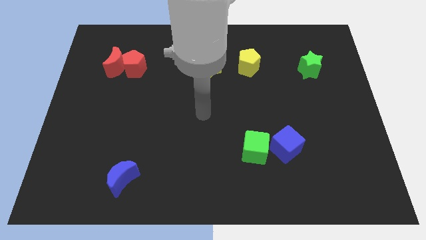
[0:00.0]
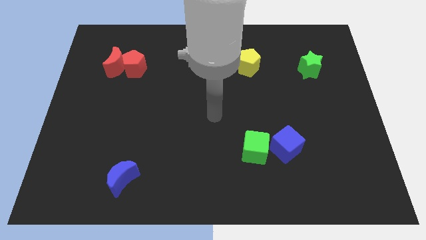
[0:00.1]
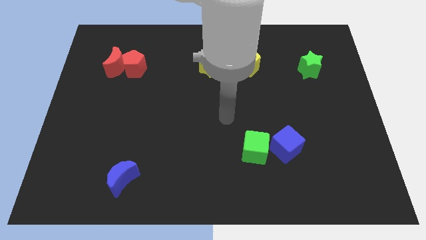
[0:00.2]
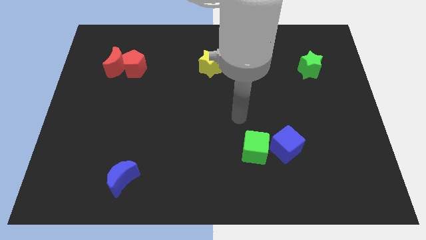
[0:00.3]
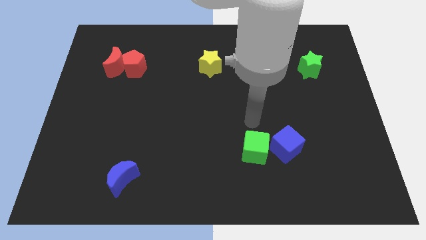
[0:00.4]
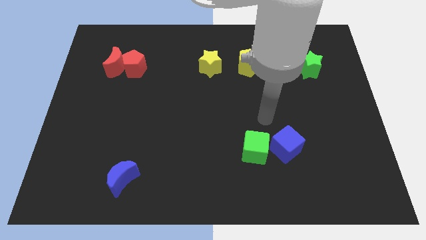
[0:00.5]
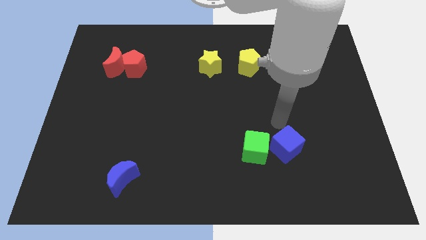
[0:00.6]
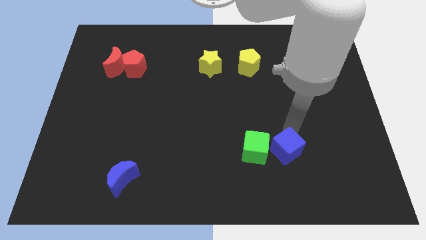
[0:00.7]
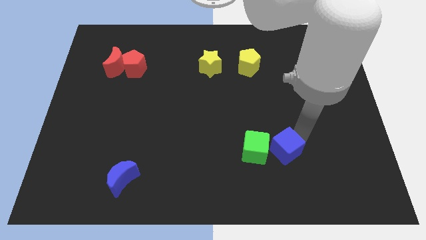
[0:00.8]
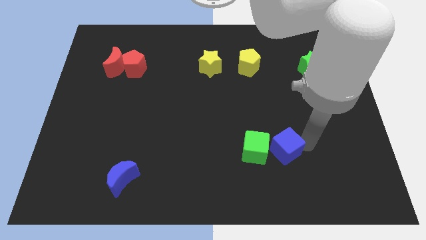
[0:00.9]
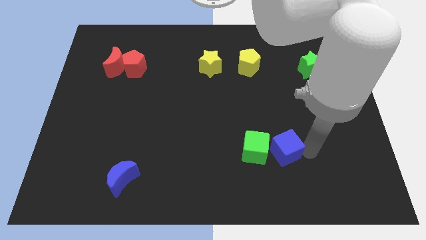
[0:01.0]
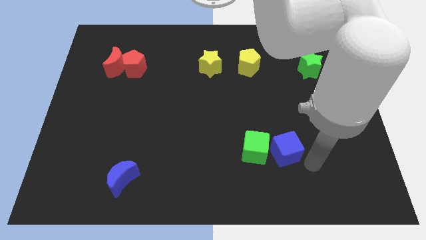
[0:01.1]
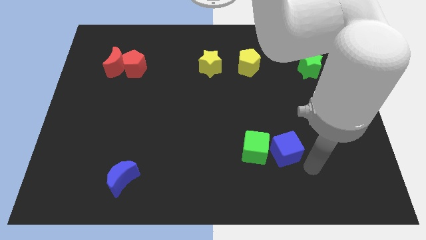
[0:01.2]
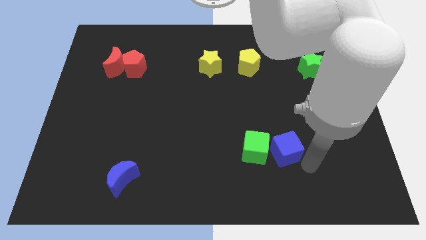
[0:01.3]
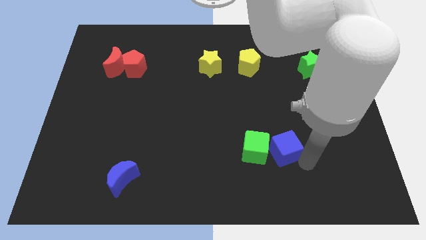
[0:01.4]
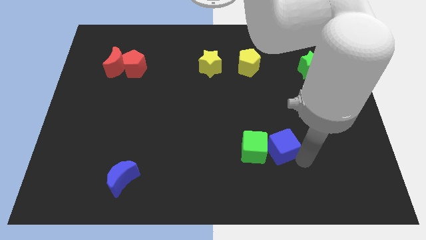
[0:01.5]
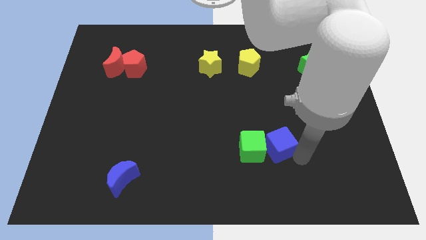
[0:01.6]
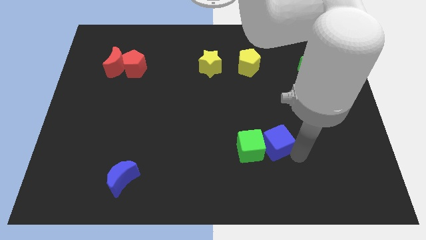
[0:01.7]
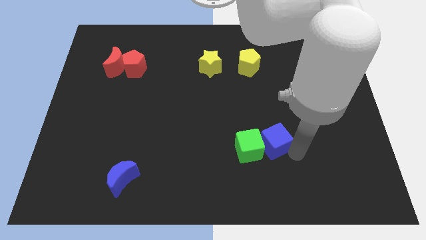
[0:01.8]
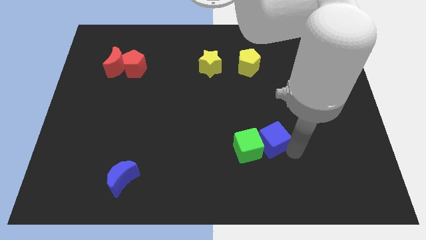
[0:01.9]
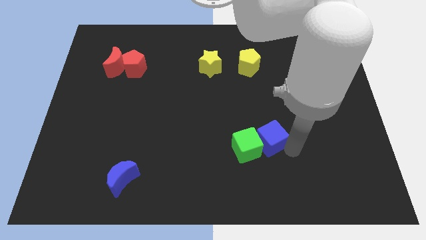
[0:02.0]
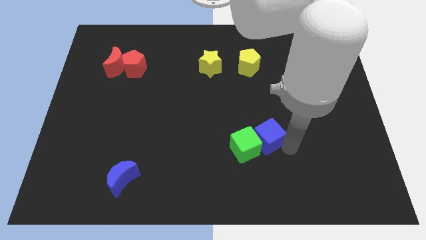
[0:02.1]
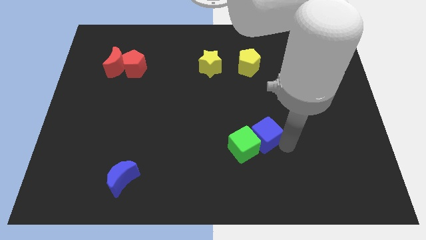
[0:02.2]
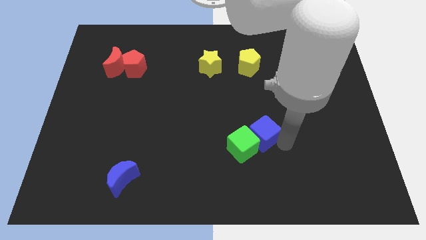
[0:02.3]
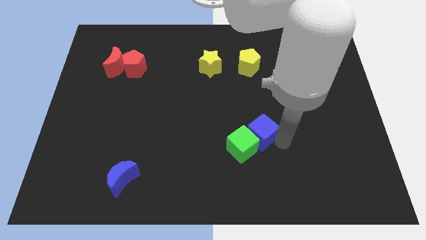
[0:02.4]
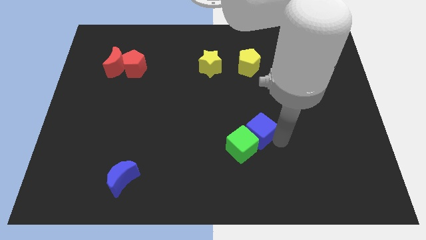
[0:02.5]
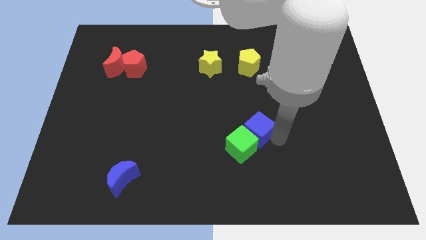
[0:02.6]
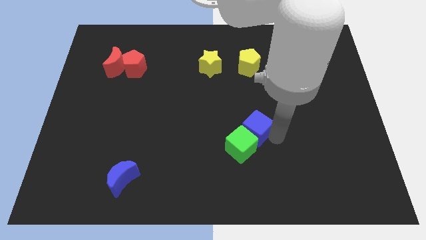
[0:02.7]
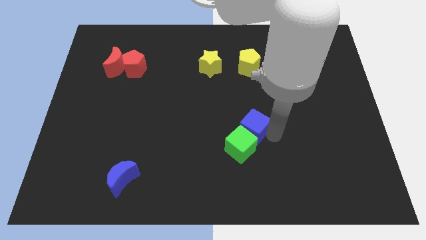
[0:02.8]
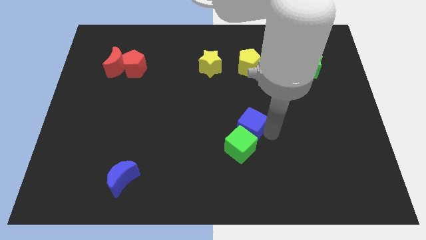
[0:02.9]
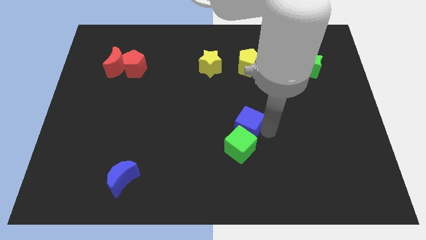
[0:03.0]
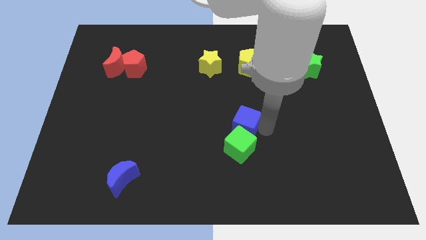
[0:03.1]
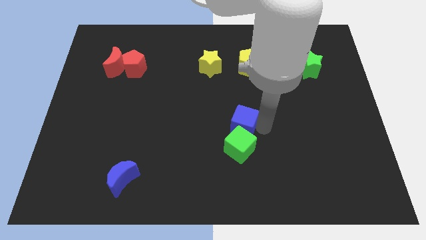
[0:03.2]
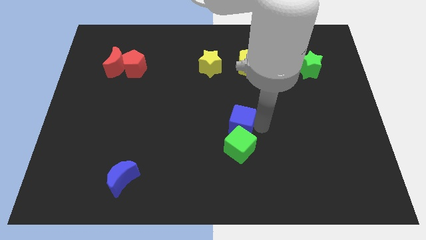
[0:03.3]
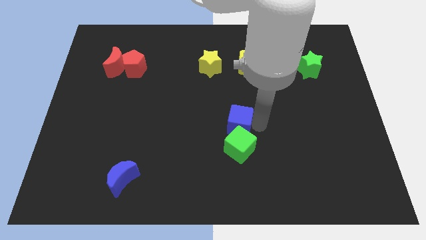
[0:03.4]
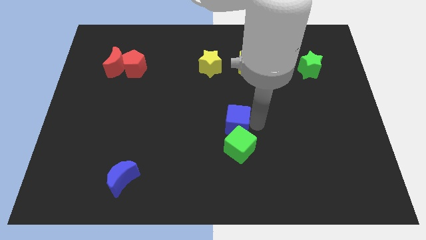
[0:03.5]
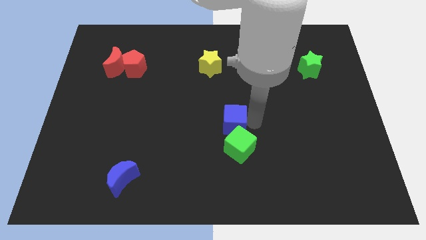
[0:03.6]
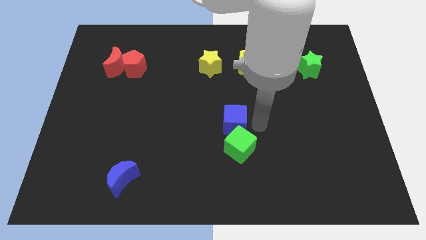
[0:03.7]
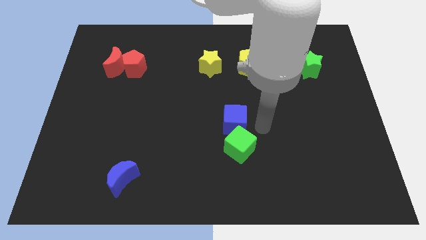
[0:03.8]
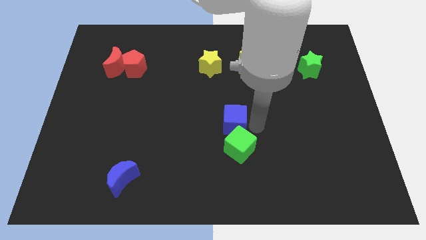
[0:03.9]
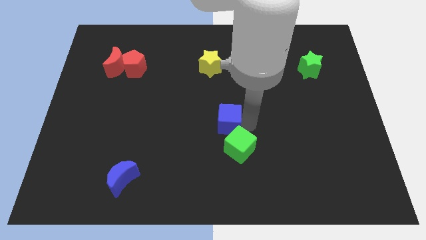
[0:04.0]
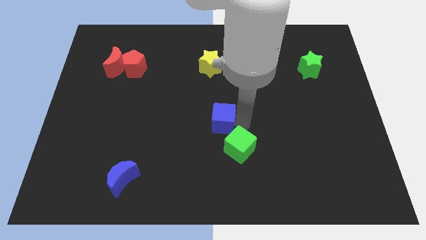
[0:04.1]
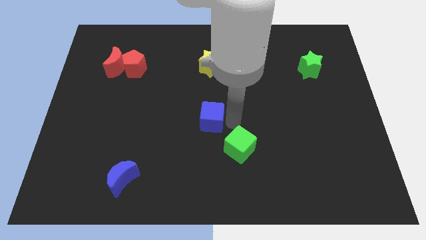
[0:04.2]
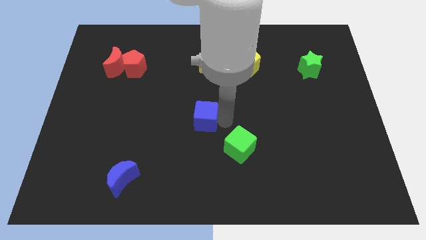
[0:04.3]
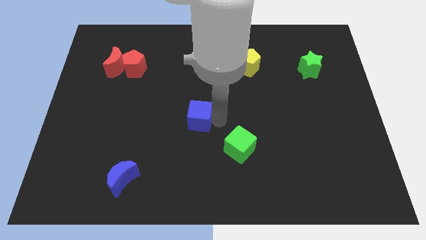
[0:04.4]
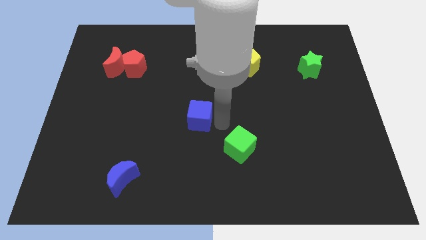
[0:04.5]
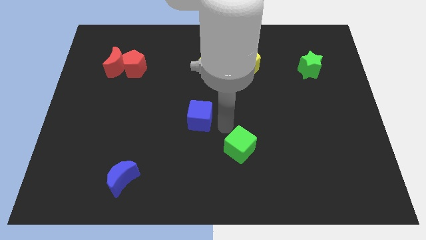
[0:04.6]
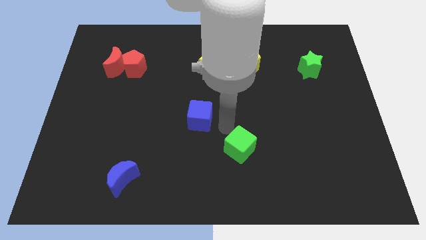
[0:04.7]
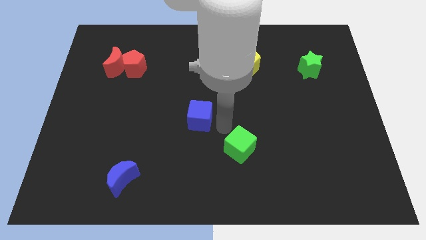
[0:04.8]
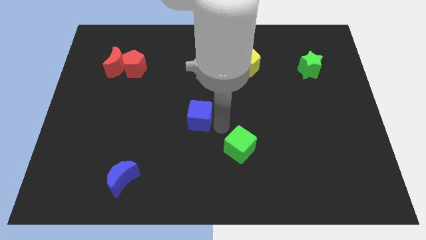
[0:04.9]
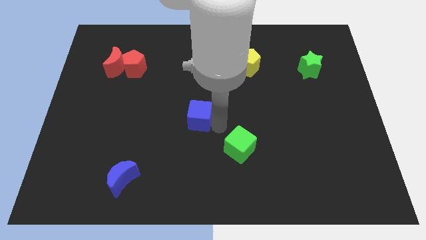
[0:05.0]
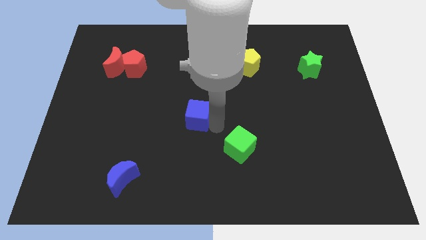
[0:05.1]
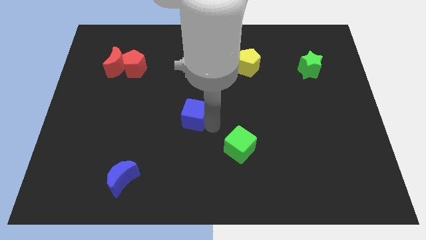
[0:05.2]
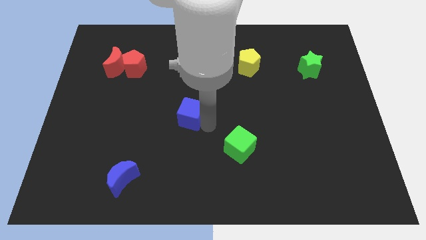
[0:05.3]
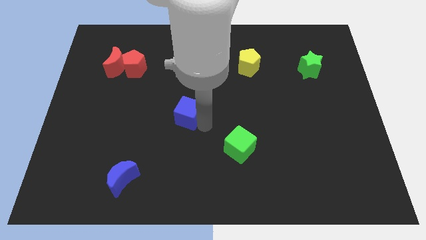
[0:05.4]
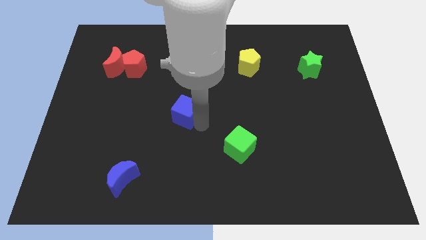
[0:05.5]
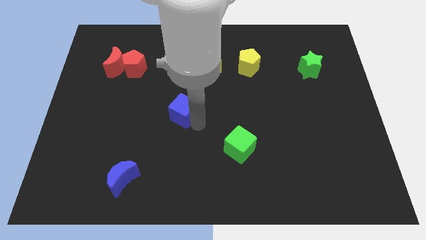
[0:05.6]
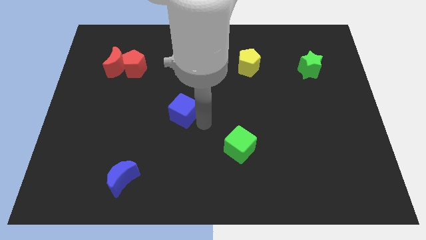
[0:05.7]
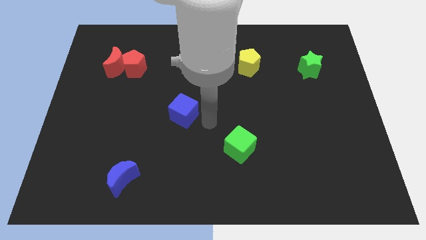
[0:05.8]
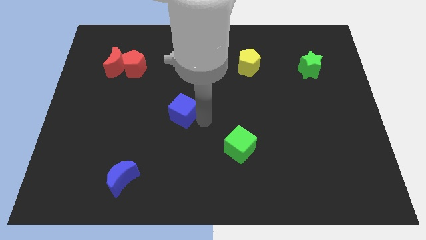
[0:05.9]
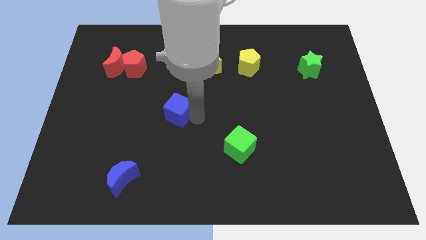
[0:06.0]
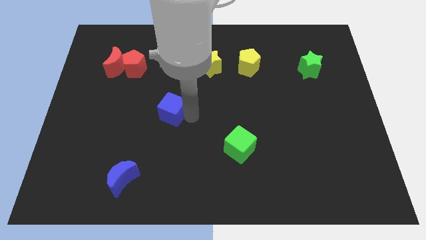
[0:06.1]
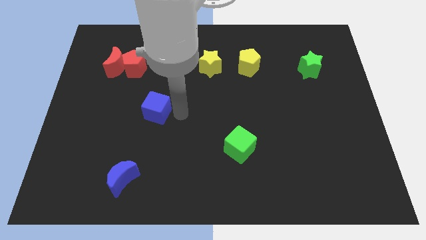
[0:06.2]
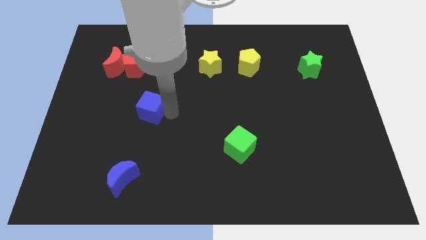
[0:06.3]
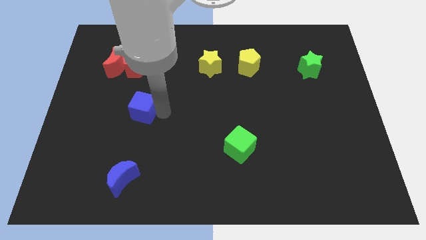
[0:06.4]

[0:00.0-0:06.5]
move the blue cube to the bottom side of the red pentagon

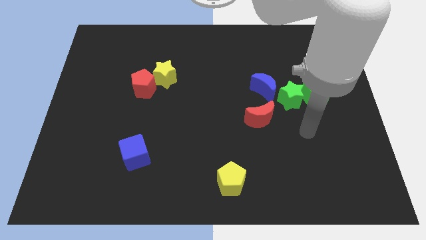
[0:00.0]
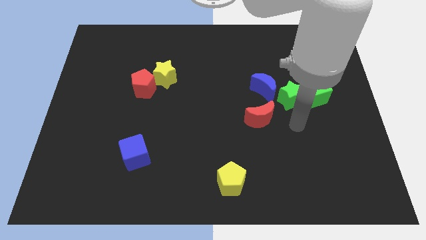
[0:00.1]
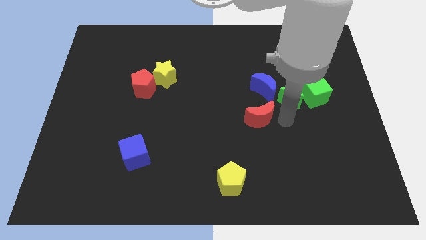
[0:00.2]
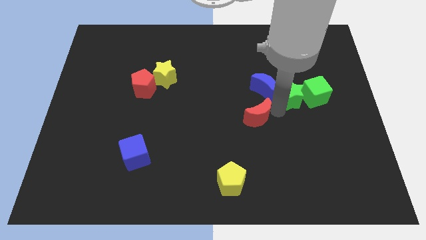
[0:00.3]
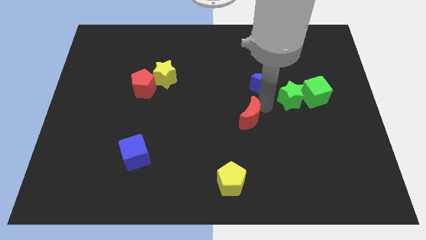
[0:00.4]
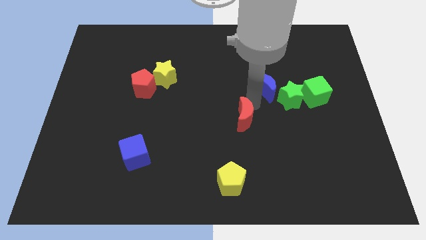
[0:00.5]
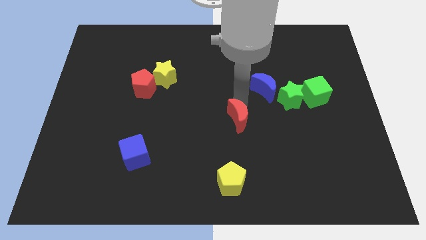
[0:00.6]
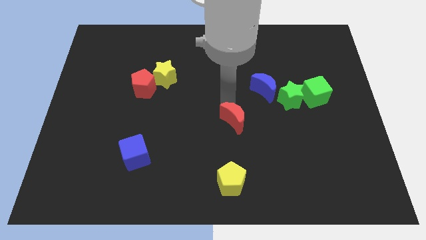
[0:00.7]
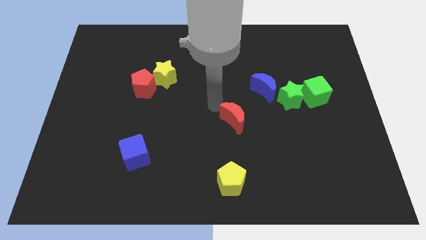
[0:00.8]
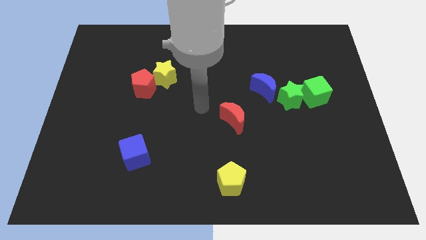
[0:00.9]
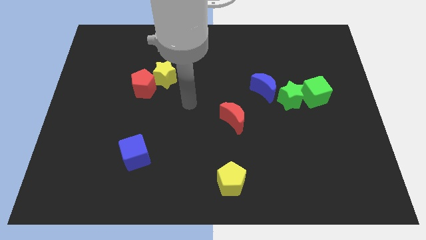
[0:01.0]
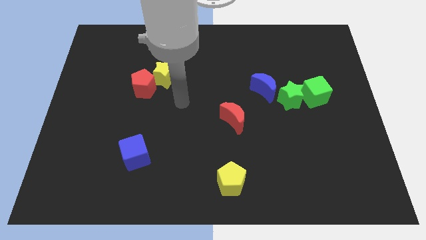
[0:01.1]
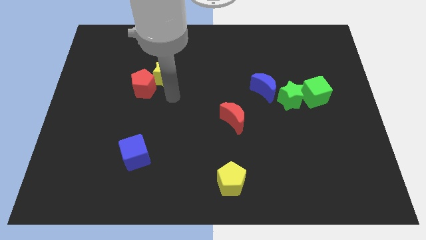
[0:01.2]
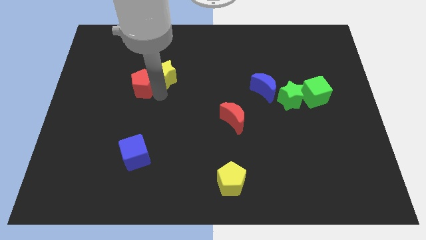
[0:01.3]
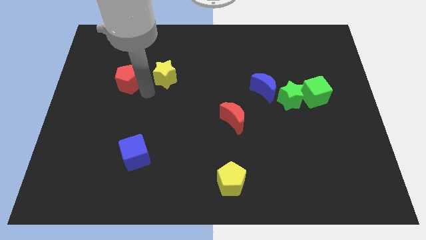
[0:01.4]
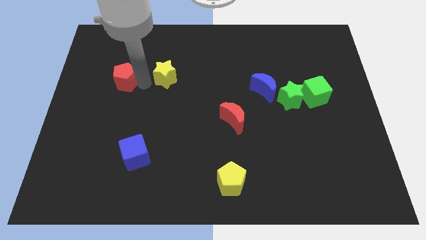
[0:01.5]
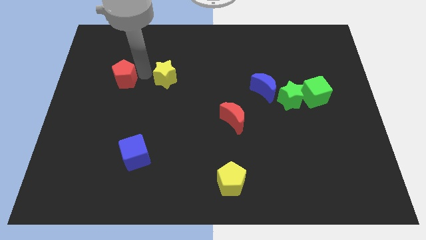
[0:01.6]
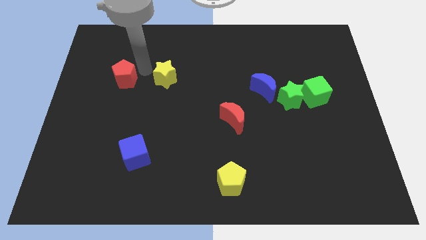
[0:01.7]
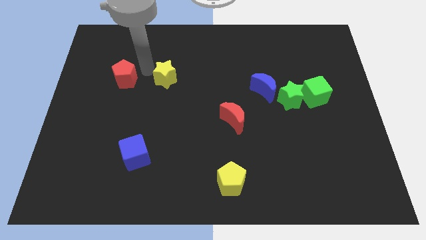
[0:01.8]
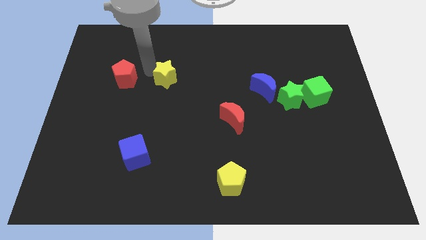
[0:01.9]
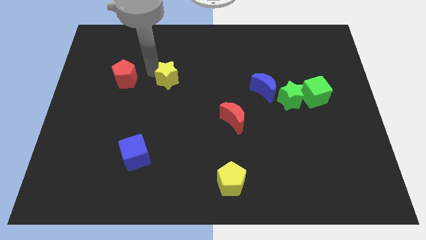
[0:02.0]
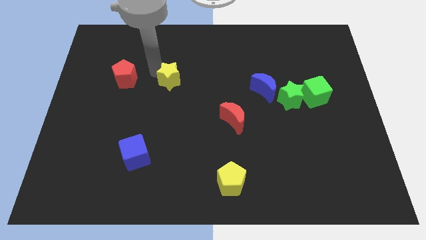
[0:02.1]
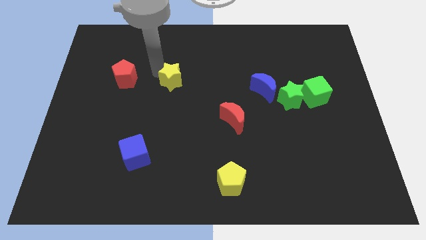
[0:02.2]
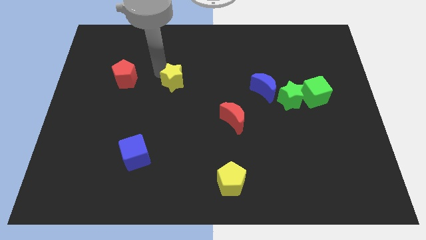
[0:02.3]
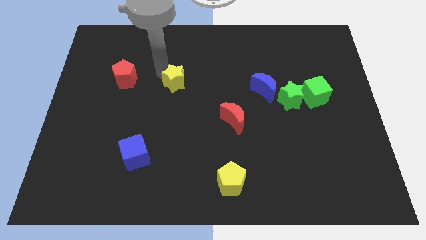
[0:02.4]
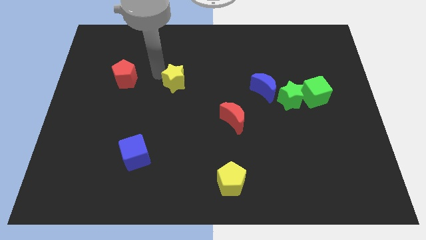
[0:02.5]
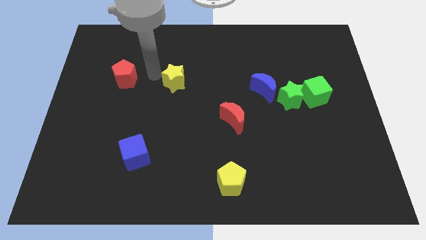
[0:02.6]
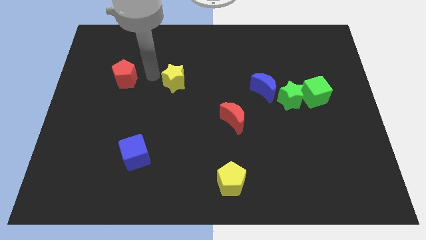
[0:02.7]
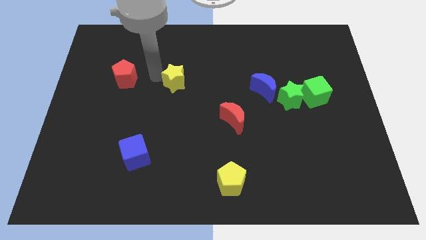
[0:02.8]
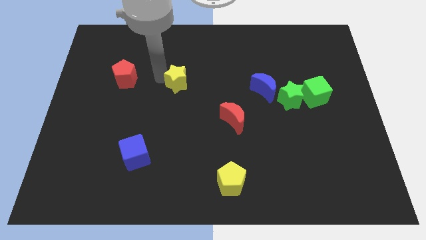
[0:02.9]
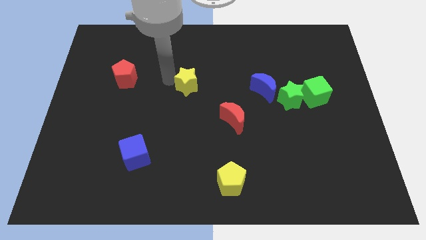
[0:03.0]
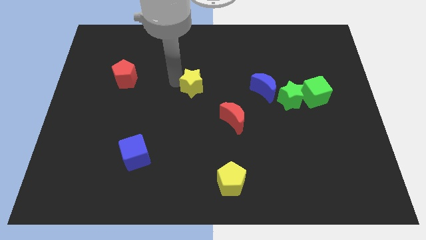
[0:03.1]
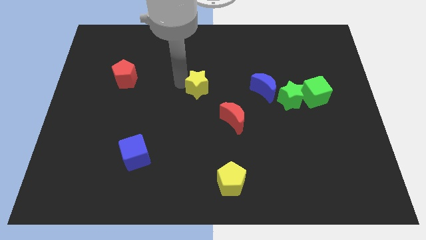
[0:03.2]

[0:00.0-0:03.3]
push the yellow star to the top left side of the red moon
